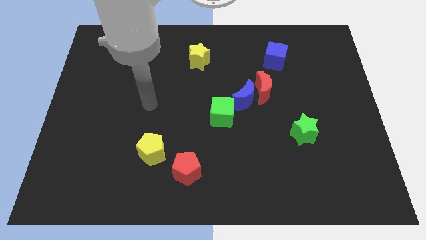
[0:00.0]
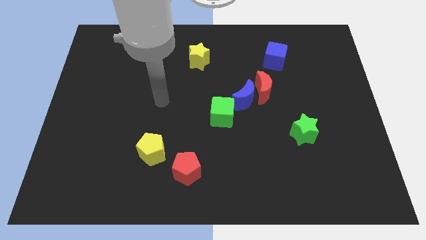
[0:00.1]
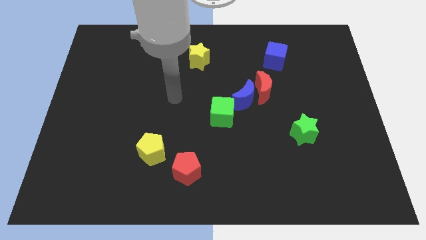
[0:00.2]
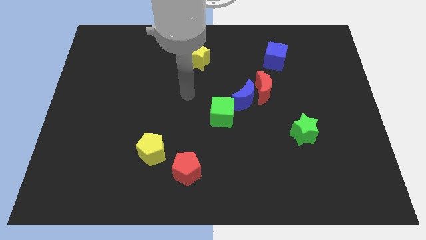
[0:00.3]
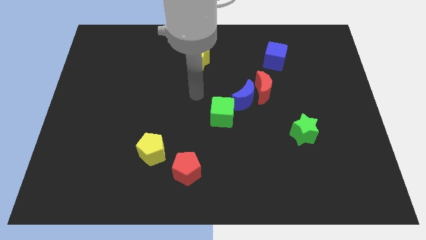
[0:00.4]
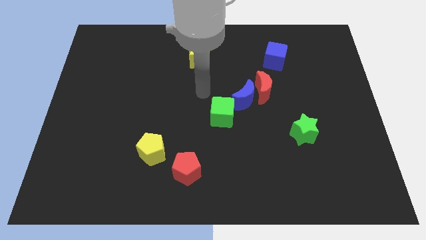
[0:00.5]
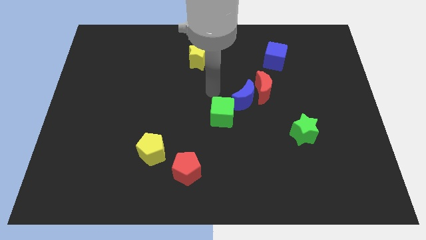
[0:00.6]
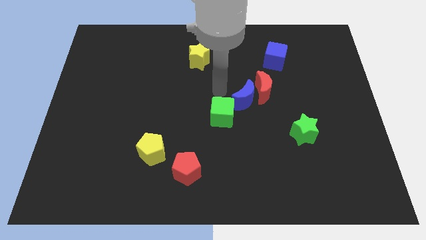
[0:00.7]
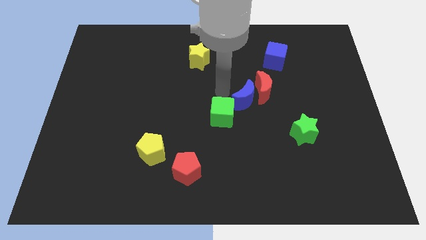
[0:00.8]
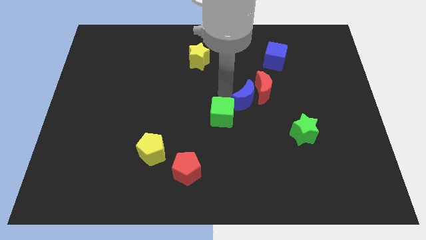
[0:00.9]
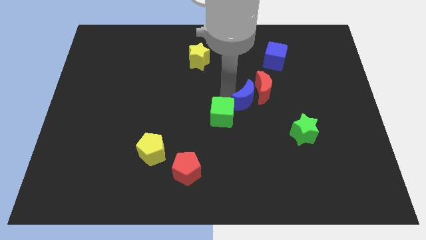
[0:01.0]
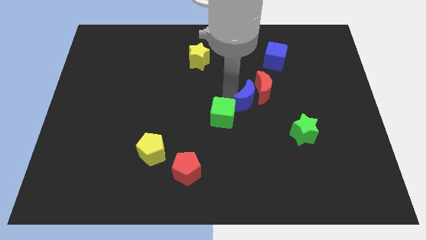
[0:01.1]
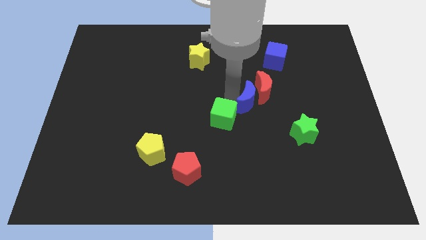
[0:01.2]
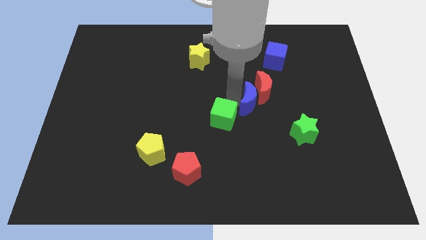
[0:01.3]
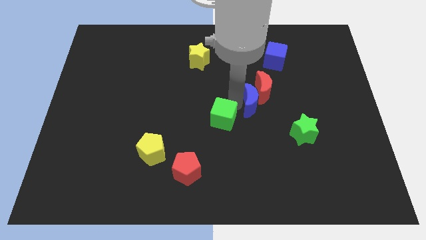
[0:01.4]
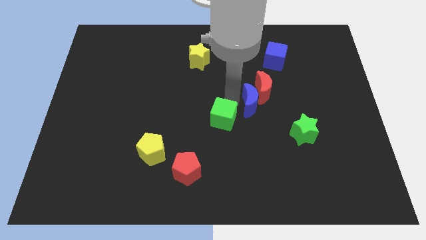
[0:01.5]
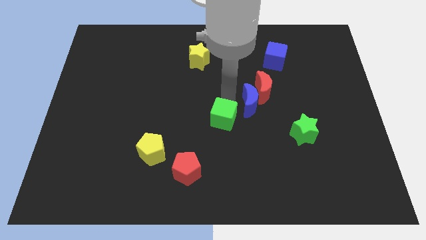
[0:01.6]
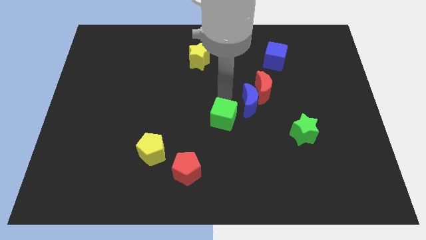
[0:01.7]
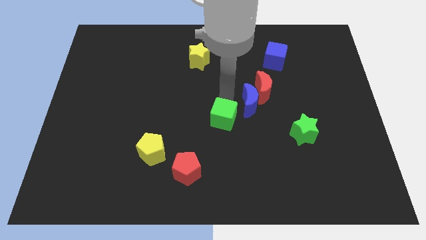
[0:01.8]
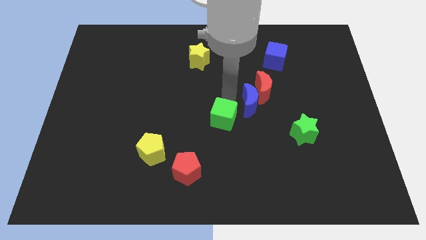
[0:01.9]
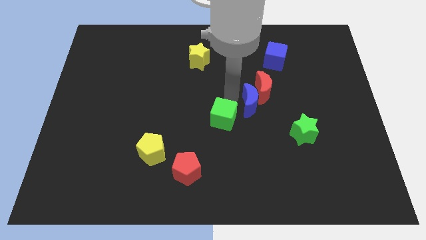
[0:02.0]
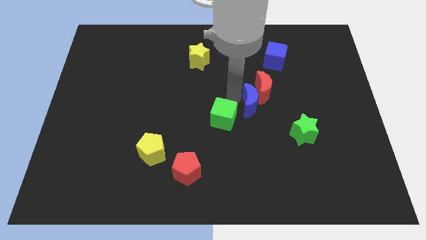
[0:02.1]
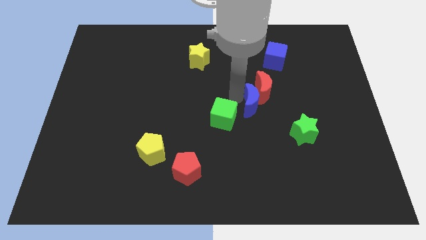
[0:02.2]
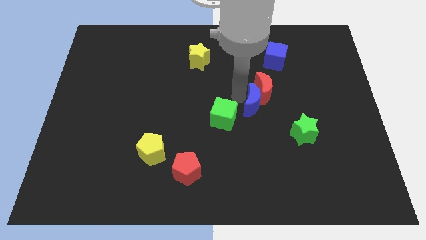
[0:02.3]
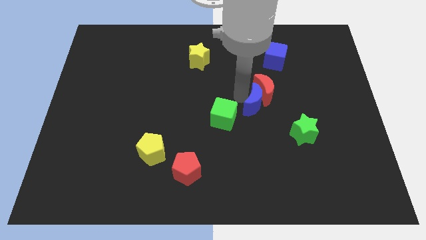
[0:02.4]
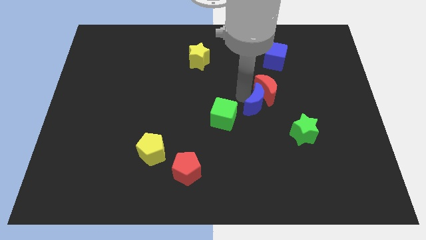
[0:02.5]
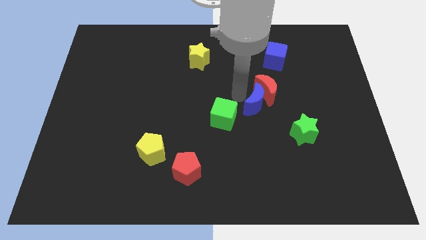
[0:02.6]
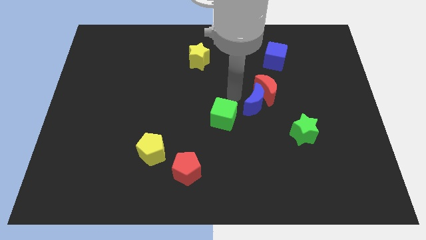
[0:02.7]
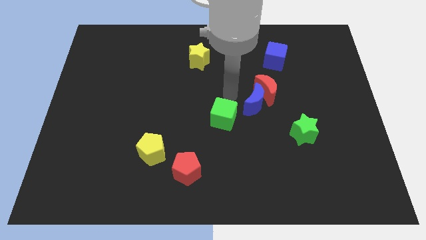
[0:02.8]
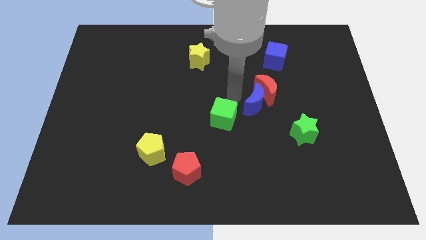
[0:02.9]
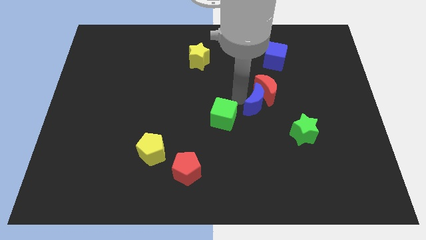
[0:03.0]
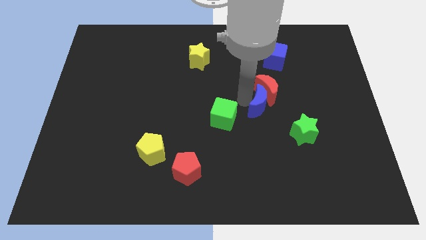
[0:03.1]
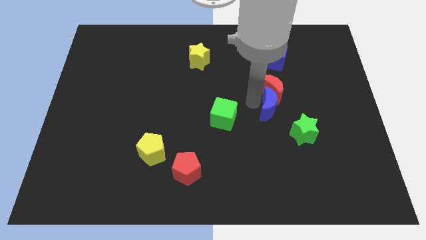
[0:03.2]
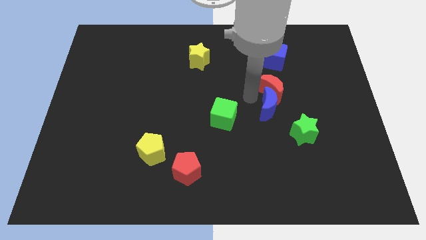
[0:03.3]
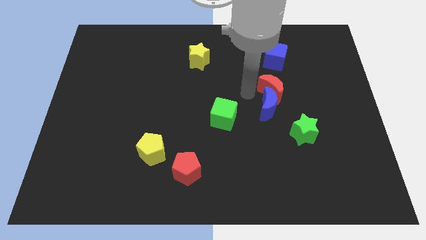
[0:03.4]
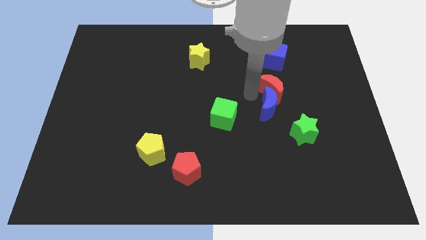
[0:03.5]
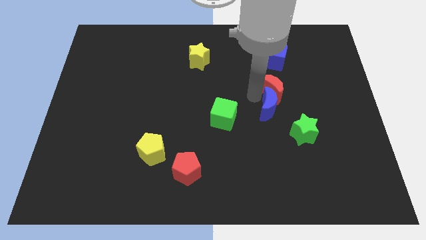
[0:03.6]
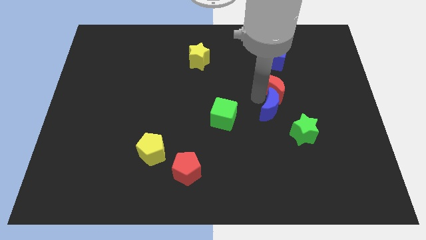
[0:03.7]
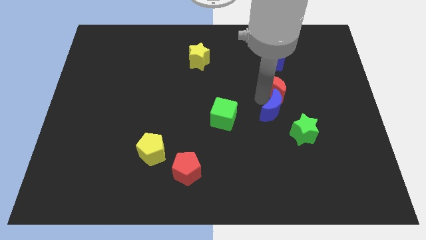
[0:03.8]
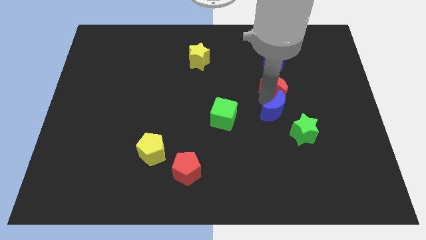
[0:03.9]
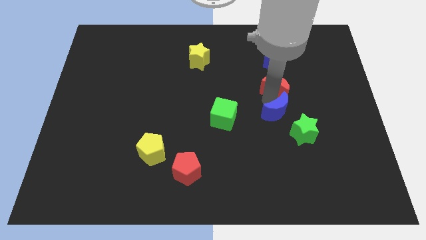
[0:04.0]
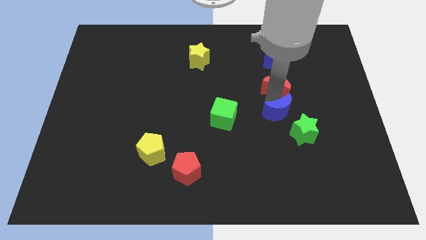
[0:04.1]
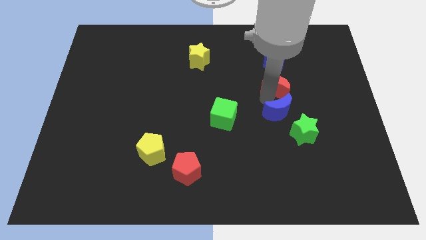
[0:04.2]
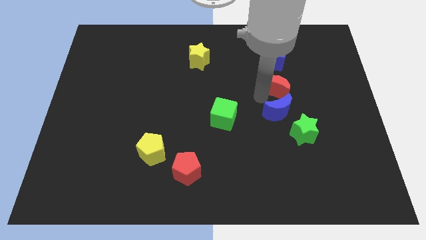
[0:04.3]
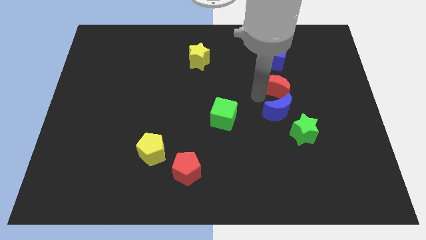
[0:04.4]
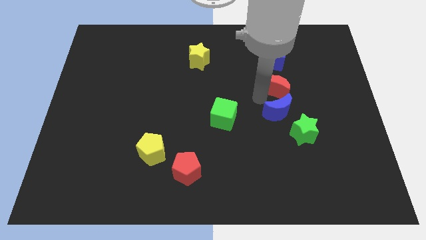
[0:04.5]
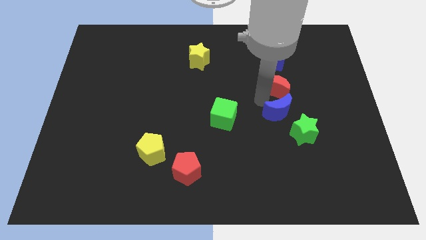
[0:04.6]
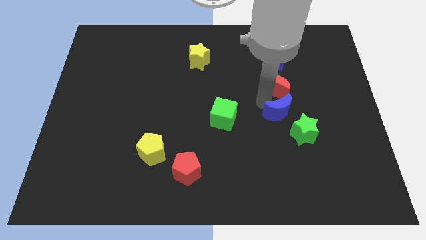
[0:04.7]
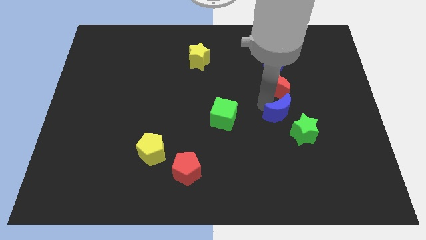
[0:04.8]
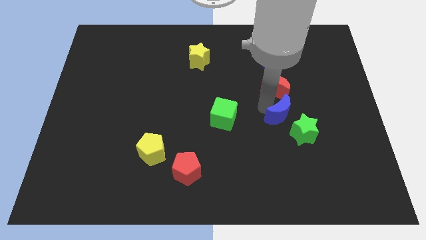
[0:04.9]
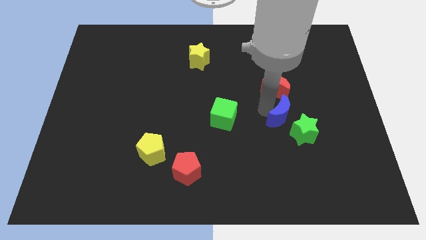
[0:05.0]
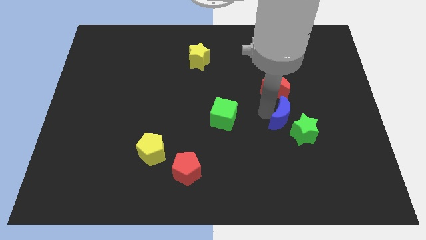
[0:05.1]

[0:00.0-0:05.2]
push the blue moon to the green star

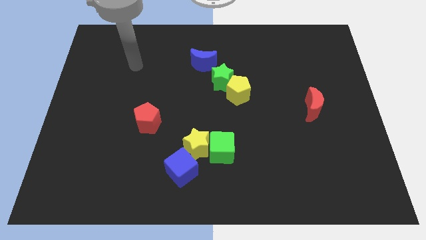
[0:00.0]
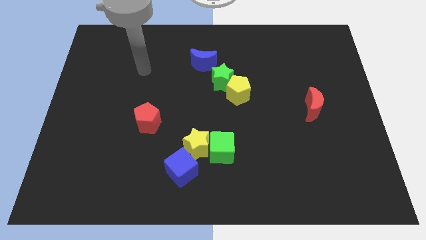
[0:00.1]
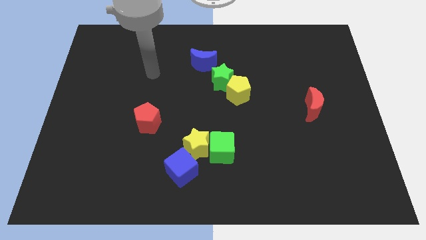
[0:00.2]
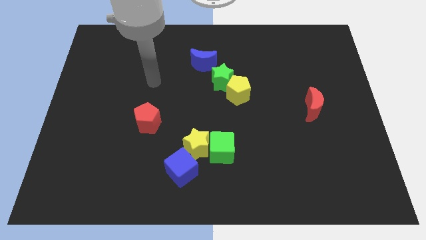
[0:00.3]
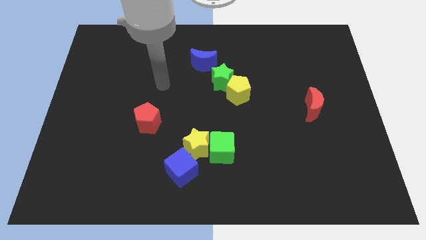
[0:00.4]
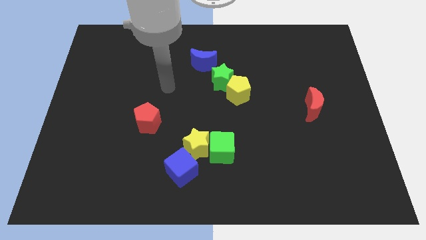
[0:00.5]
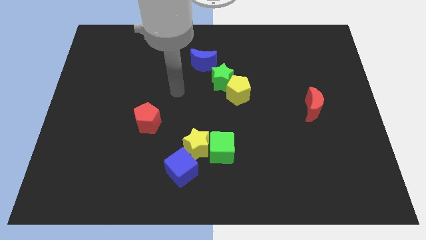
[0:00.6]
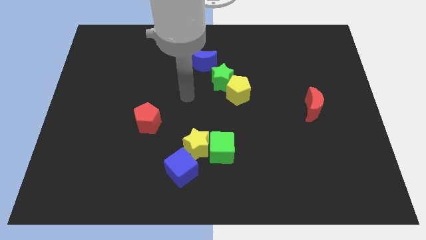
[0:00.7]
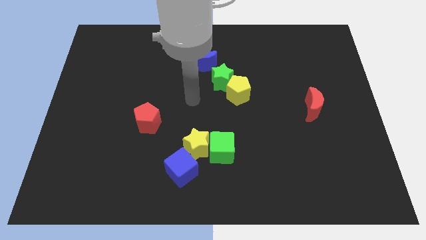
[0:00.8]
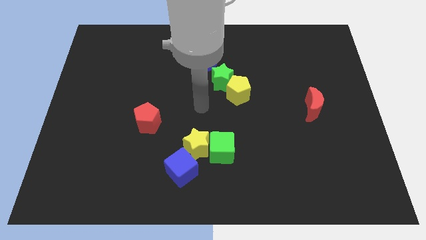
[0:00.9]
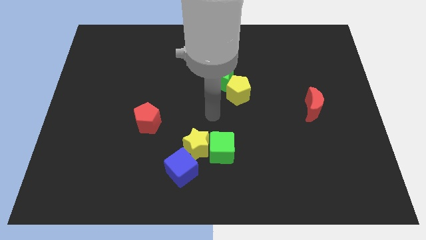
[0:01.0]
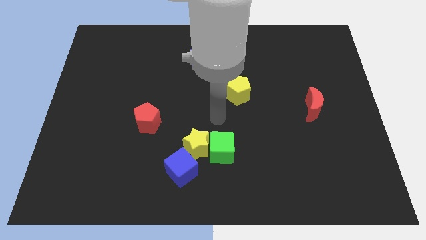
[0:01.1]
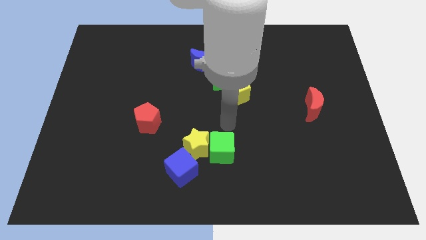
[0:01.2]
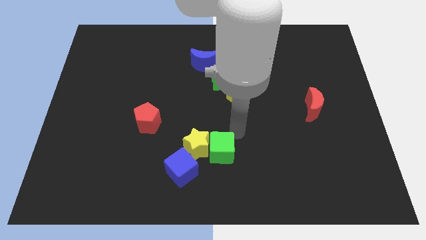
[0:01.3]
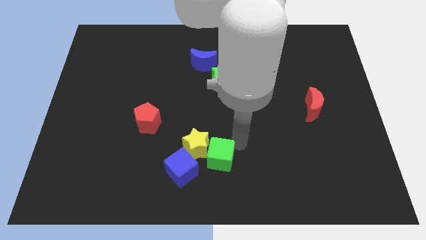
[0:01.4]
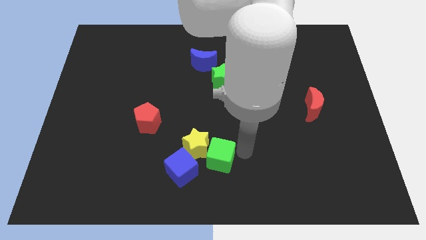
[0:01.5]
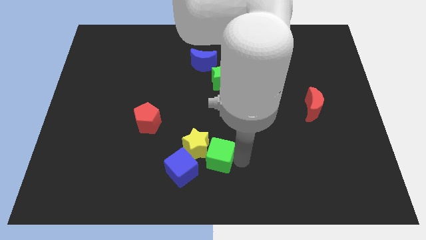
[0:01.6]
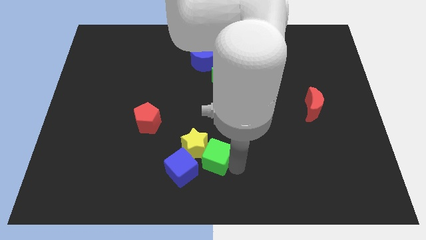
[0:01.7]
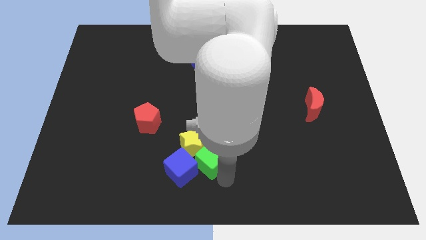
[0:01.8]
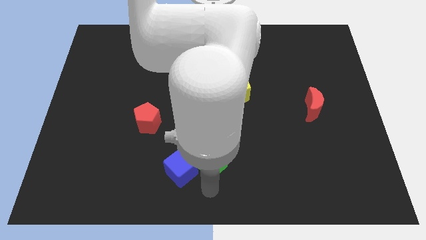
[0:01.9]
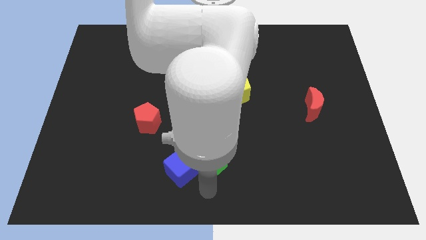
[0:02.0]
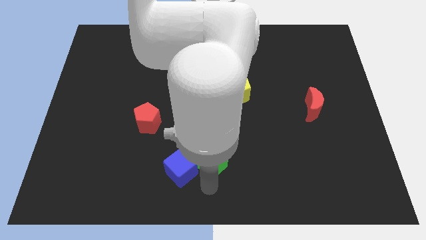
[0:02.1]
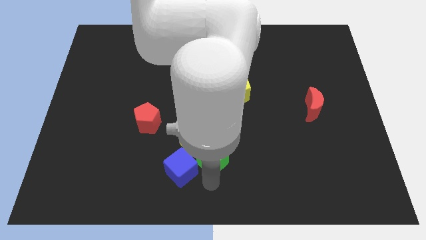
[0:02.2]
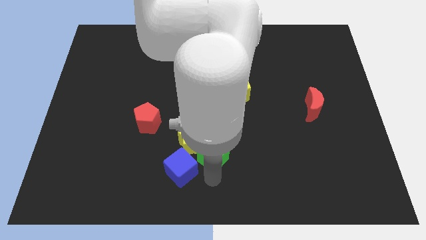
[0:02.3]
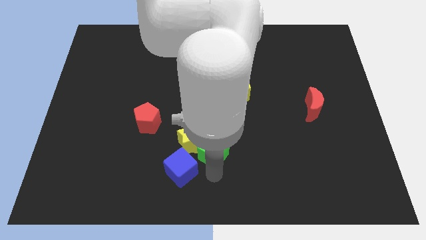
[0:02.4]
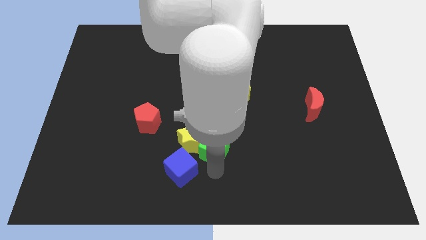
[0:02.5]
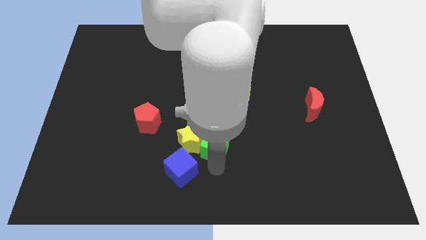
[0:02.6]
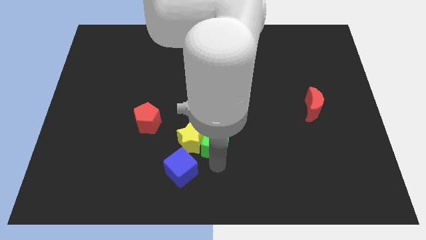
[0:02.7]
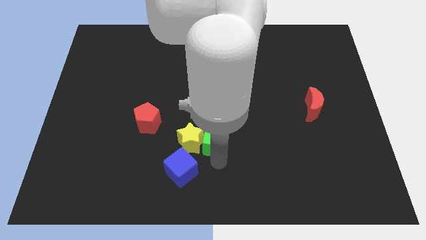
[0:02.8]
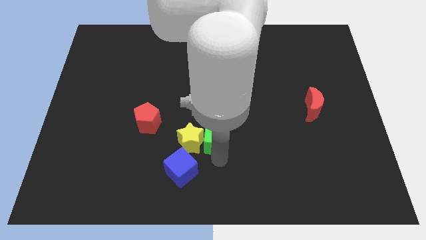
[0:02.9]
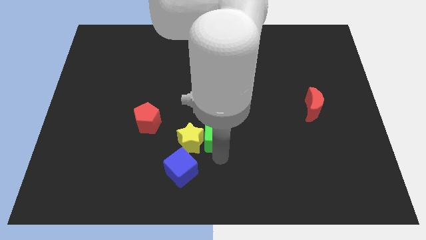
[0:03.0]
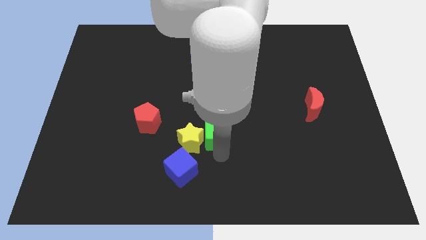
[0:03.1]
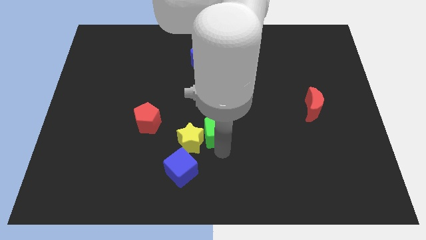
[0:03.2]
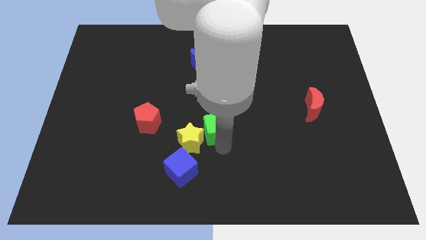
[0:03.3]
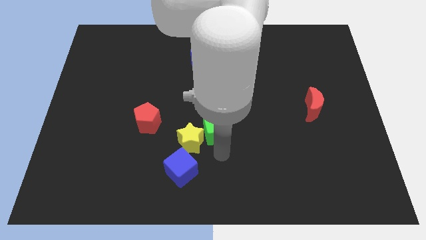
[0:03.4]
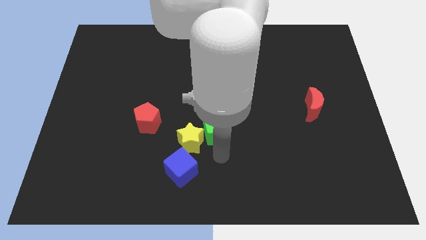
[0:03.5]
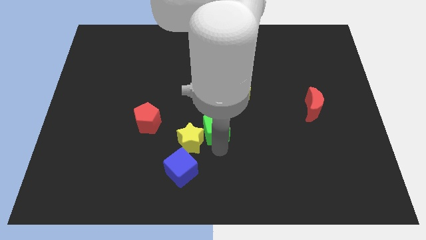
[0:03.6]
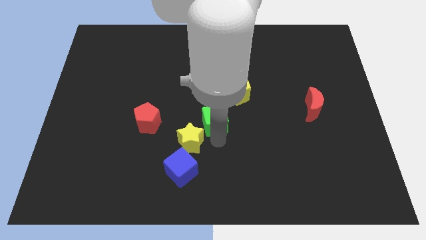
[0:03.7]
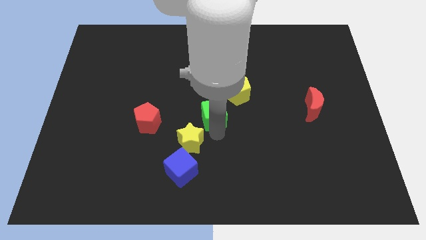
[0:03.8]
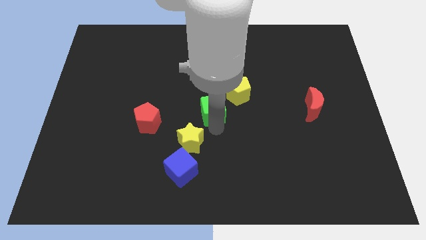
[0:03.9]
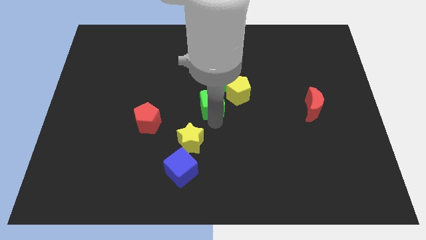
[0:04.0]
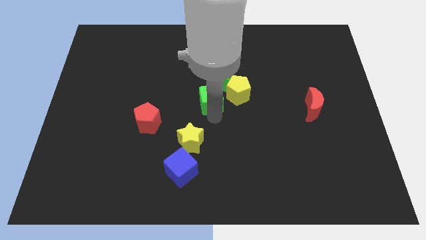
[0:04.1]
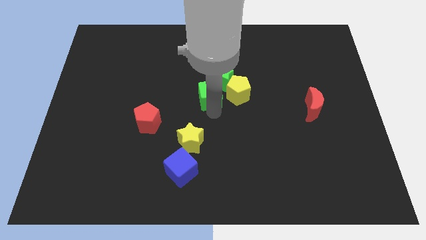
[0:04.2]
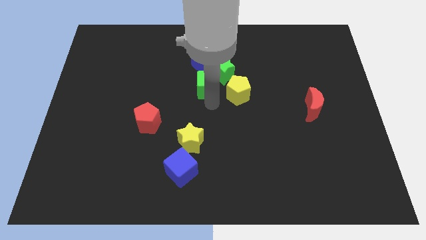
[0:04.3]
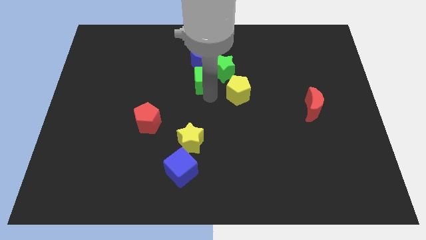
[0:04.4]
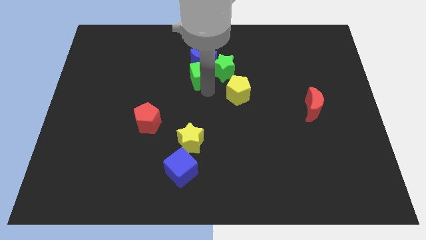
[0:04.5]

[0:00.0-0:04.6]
push the green cube towards the blue moon
